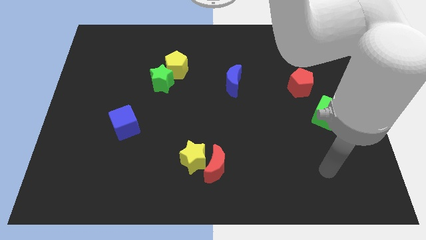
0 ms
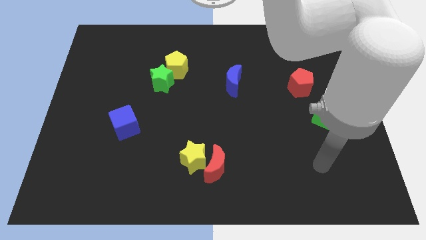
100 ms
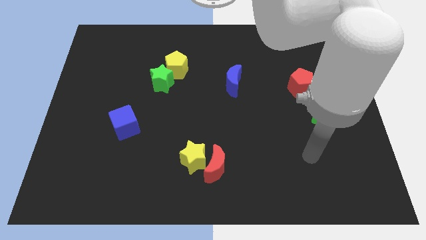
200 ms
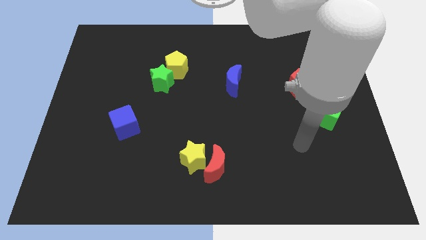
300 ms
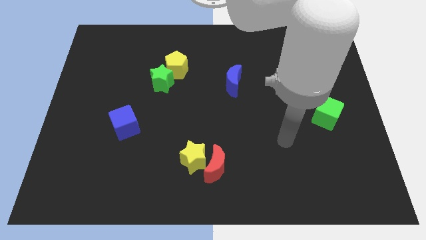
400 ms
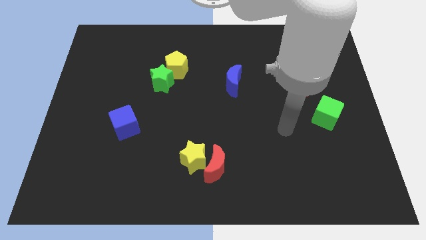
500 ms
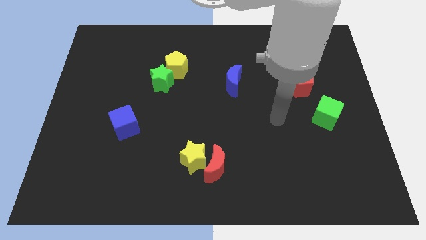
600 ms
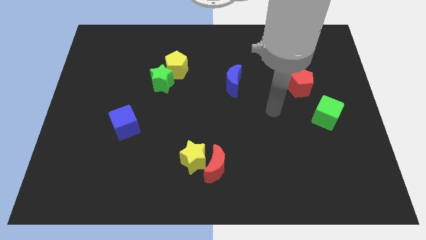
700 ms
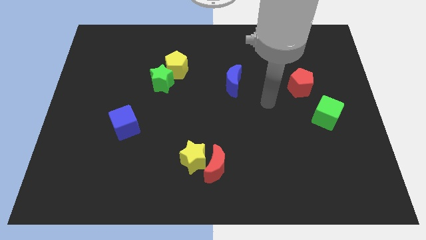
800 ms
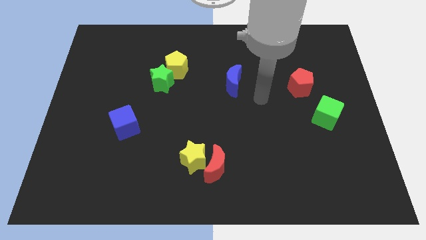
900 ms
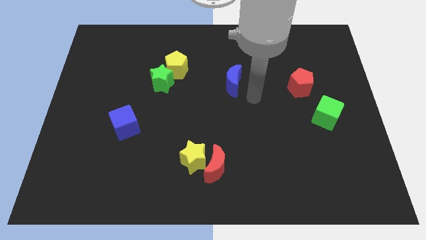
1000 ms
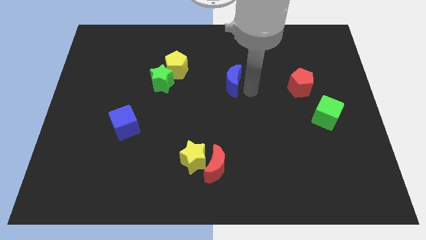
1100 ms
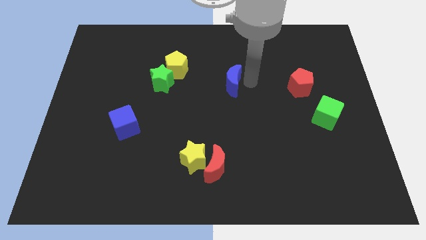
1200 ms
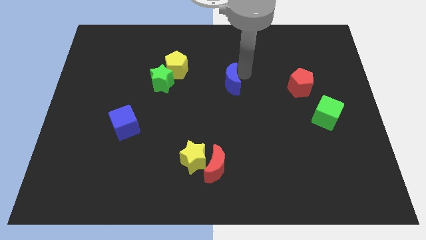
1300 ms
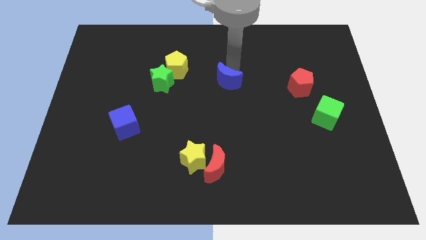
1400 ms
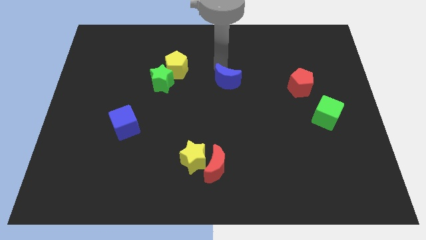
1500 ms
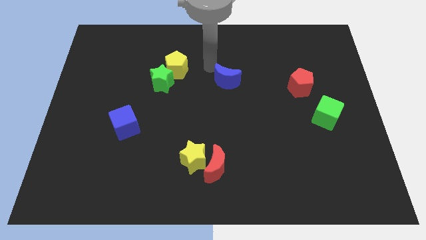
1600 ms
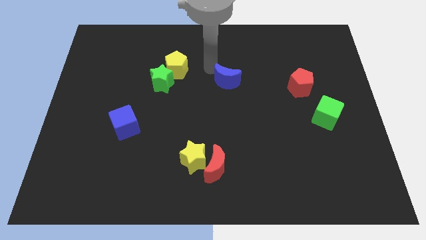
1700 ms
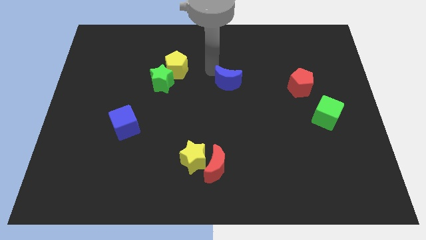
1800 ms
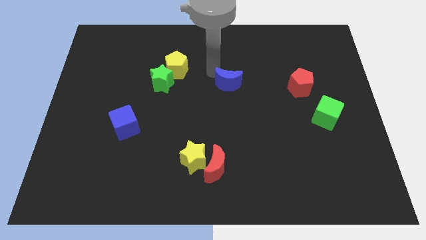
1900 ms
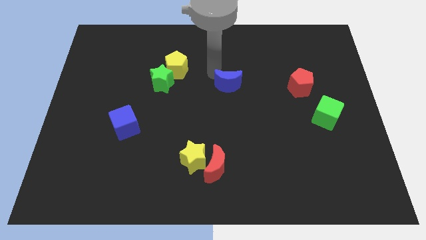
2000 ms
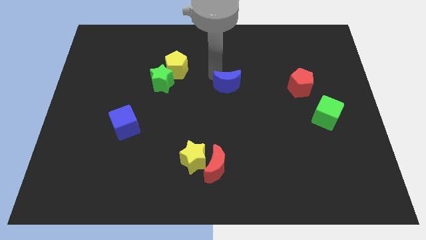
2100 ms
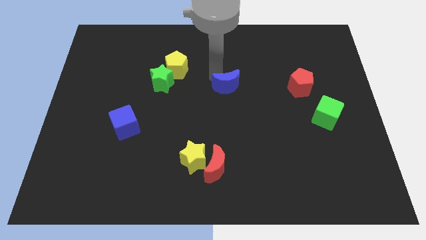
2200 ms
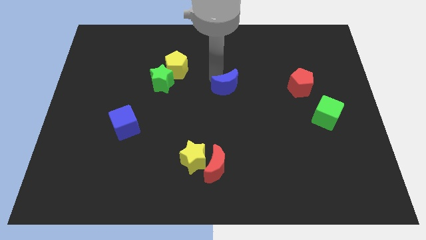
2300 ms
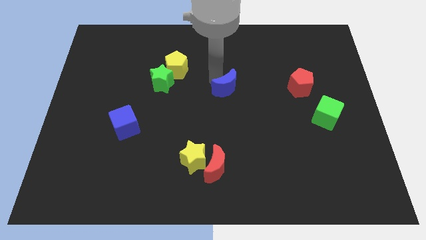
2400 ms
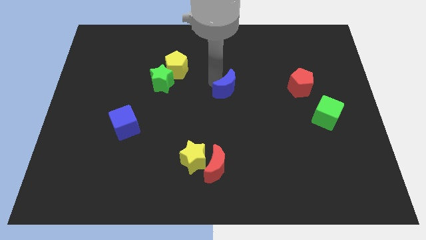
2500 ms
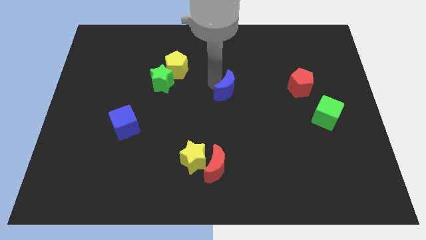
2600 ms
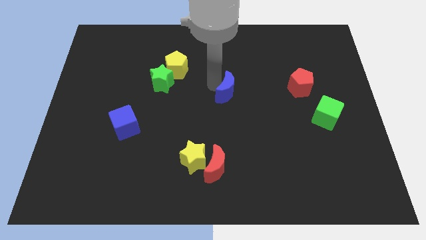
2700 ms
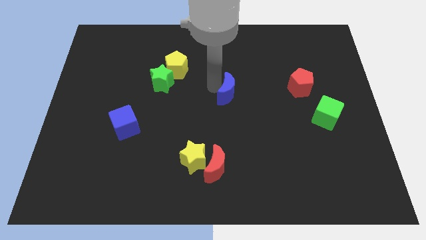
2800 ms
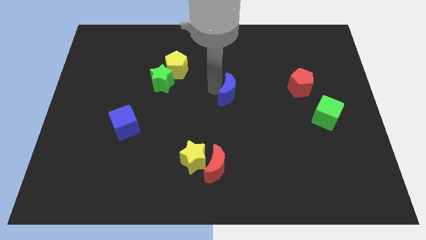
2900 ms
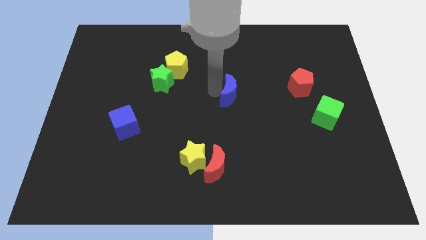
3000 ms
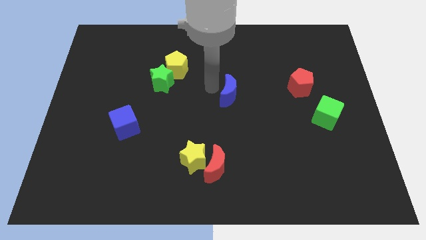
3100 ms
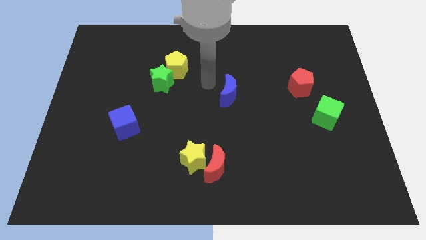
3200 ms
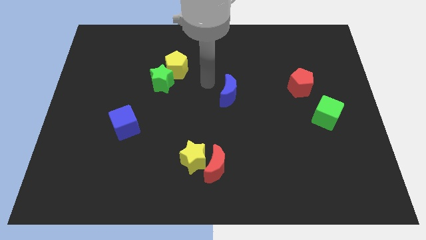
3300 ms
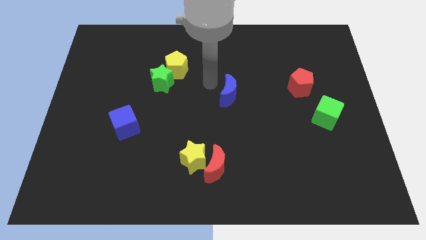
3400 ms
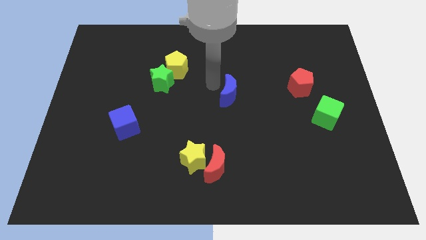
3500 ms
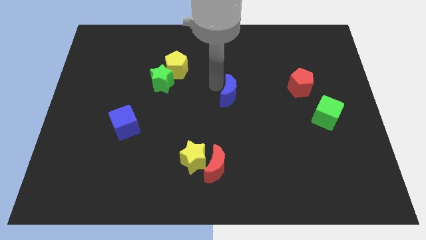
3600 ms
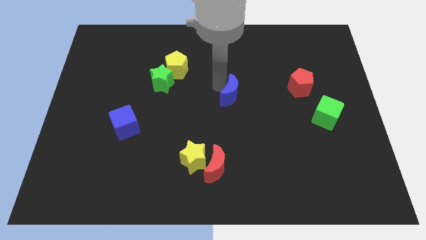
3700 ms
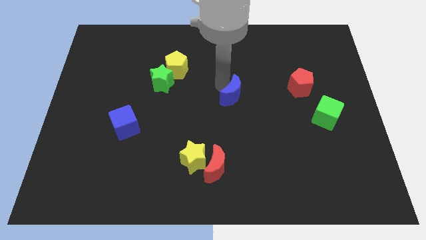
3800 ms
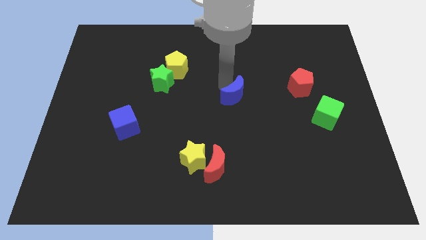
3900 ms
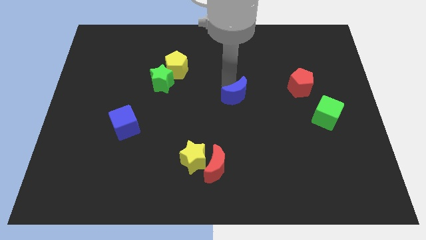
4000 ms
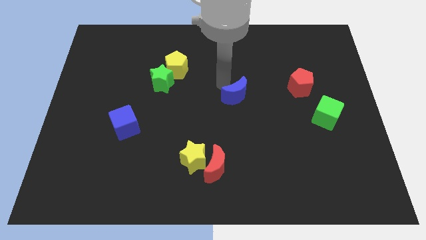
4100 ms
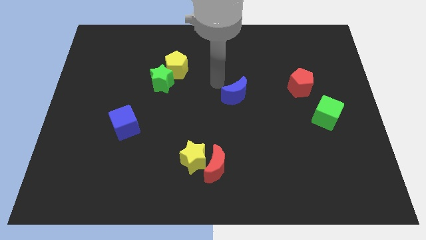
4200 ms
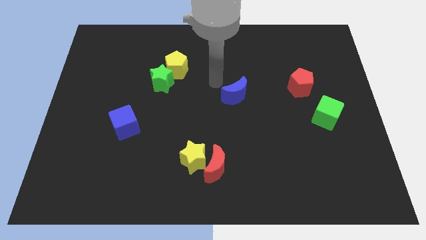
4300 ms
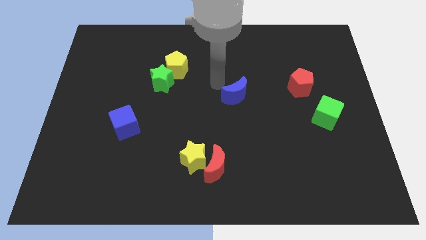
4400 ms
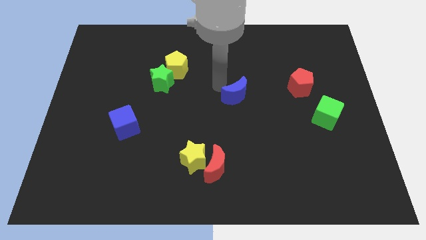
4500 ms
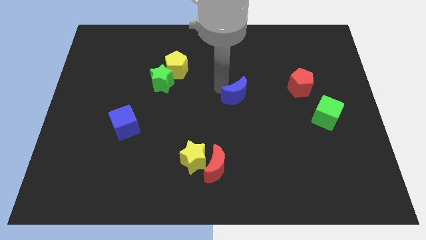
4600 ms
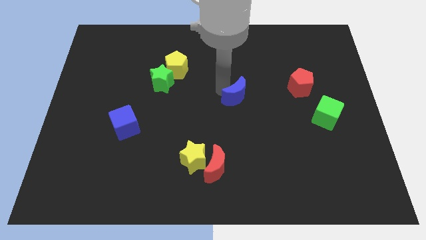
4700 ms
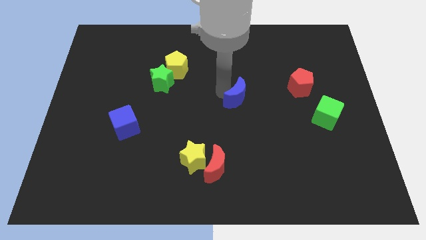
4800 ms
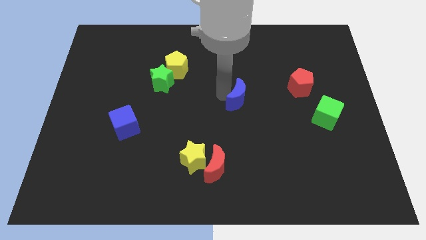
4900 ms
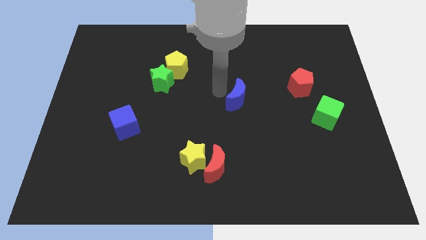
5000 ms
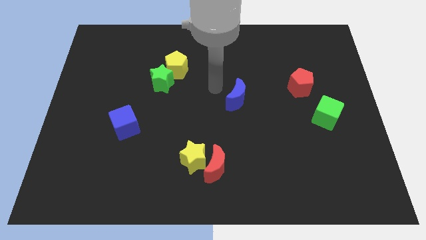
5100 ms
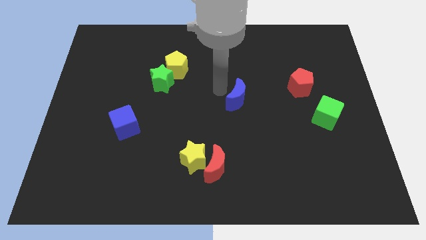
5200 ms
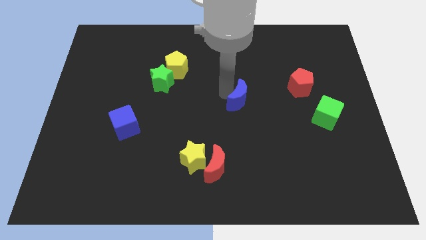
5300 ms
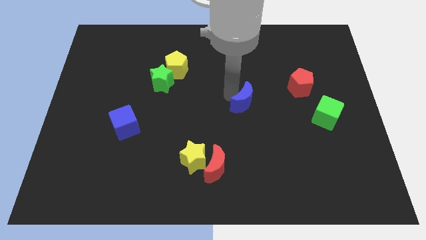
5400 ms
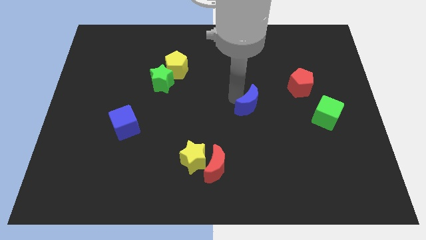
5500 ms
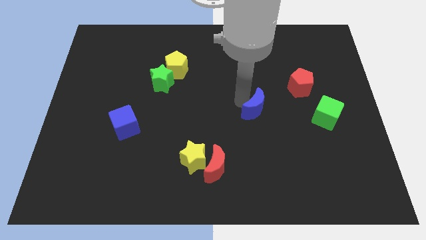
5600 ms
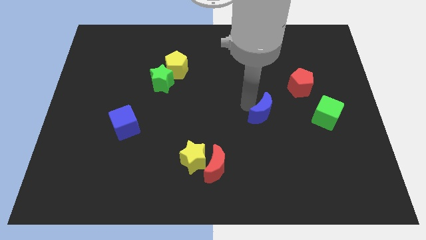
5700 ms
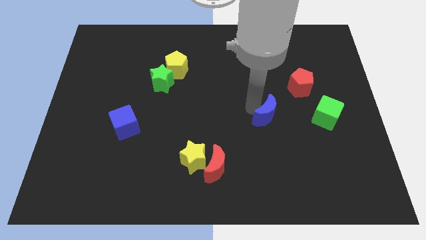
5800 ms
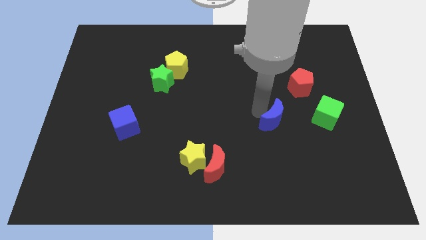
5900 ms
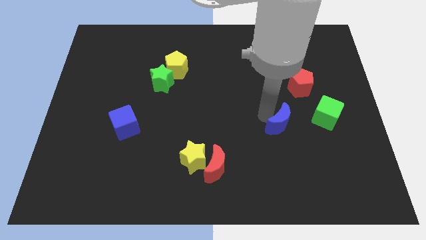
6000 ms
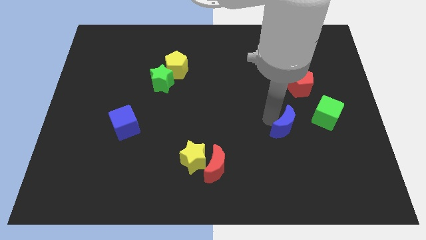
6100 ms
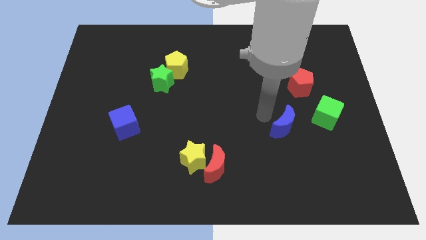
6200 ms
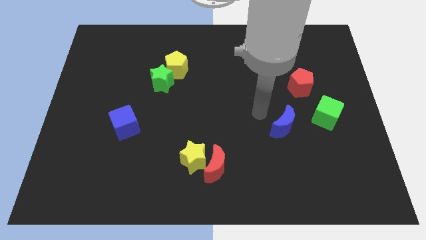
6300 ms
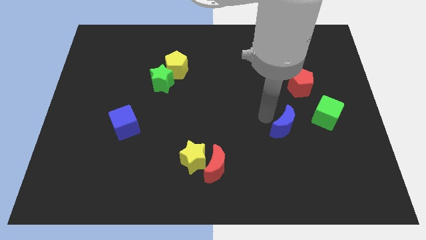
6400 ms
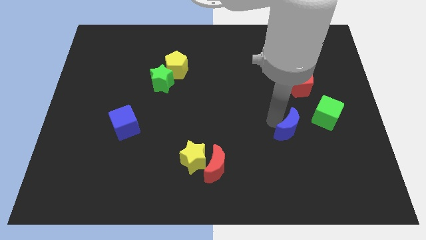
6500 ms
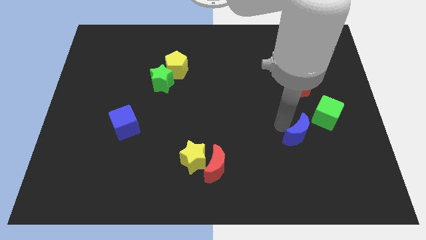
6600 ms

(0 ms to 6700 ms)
push the blue moon diagonally downwards and right

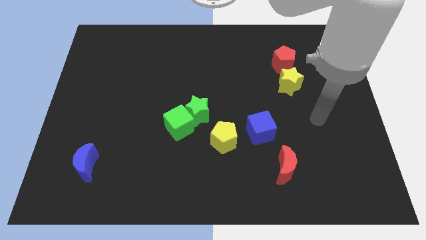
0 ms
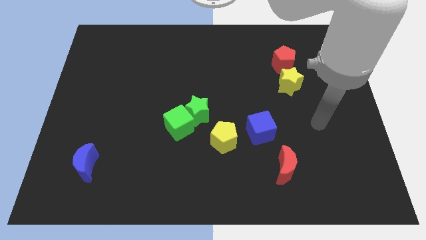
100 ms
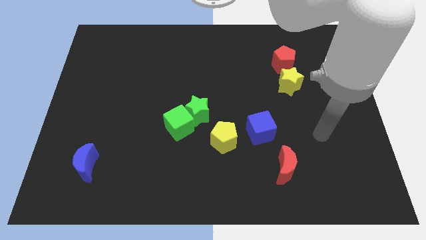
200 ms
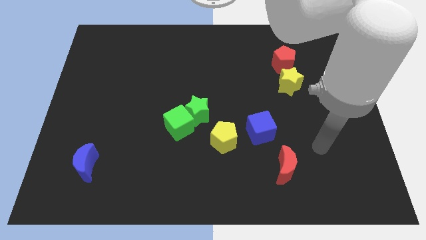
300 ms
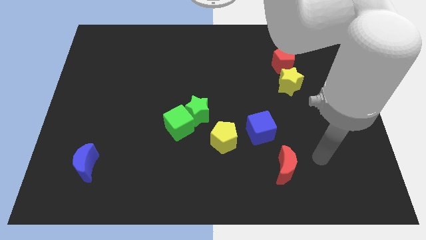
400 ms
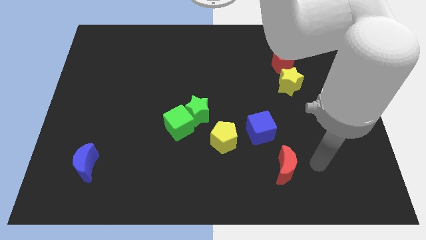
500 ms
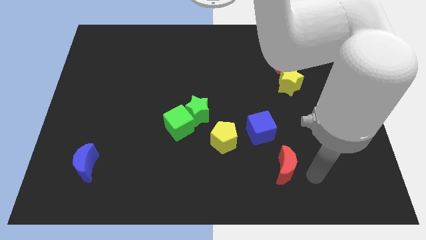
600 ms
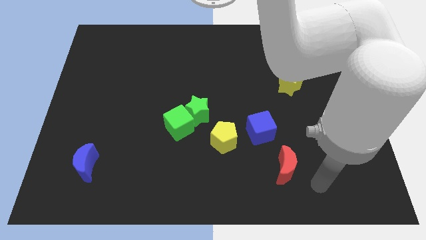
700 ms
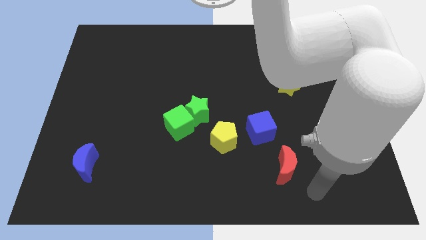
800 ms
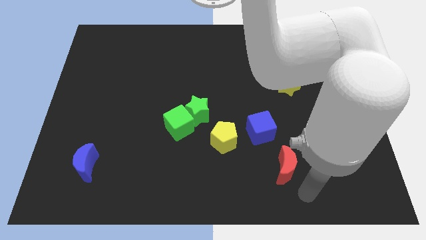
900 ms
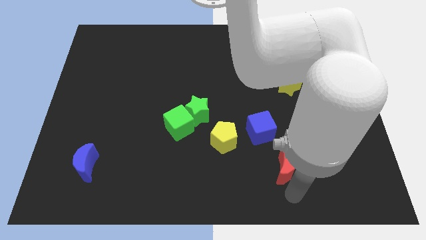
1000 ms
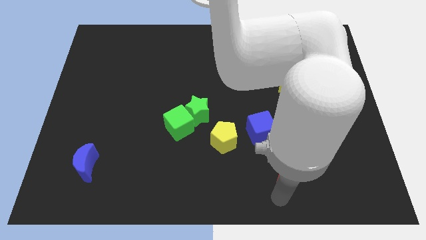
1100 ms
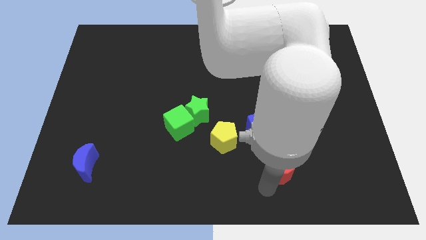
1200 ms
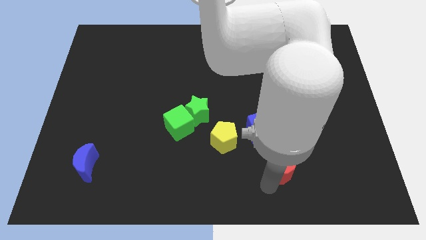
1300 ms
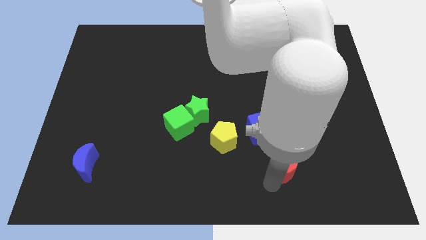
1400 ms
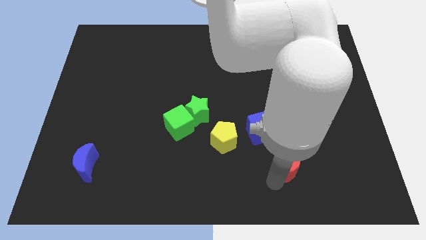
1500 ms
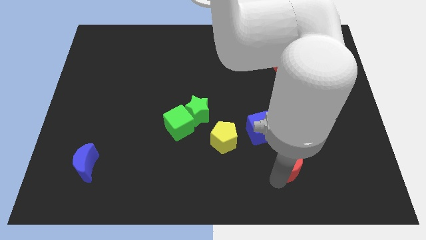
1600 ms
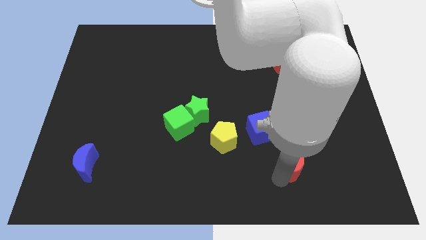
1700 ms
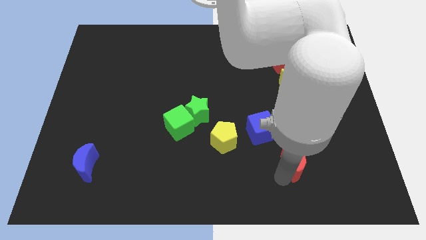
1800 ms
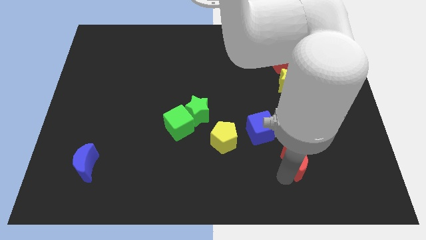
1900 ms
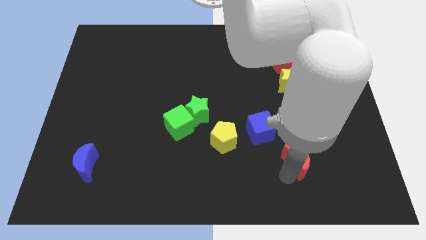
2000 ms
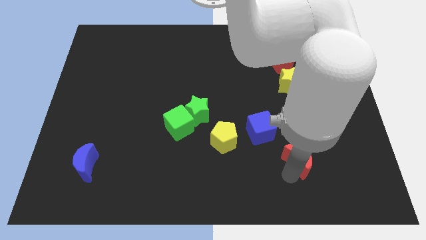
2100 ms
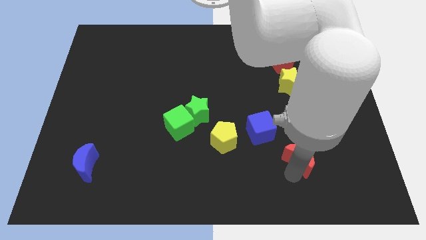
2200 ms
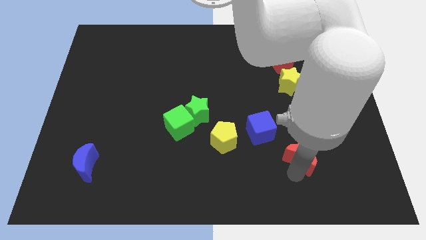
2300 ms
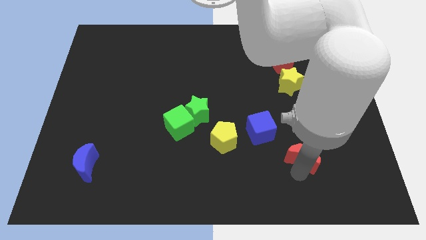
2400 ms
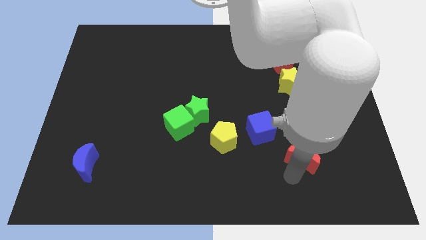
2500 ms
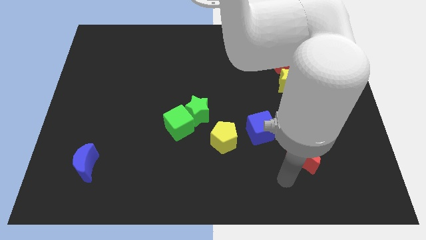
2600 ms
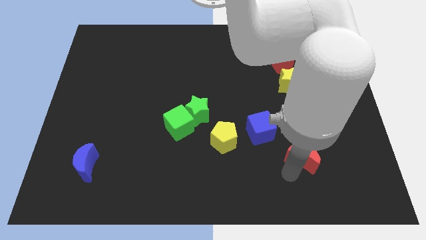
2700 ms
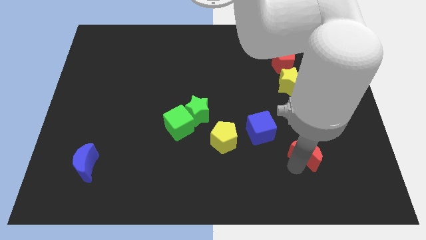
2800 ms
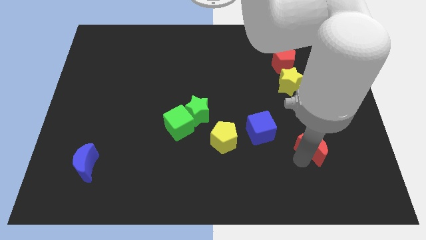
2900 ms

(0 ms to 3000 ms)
move the red moon a little diagonally upwards and right
